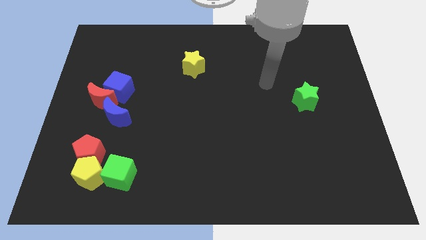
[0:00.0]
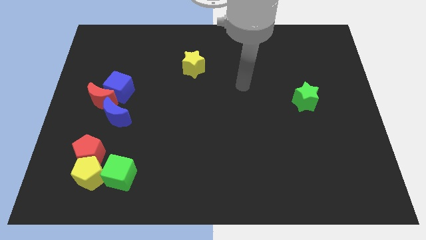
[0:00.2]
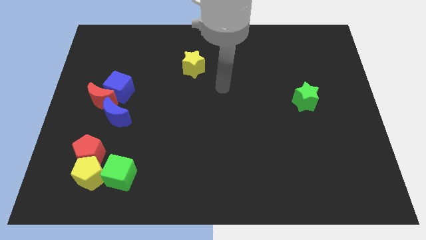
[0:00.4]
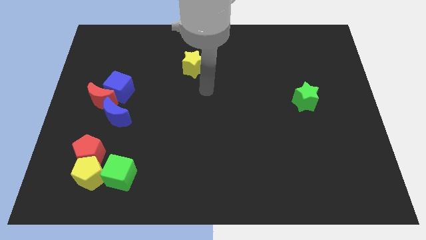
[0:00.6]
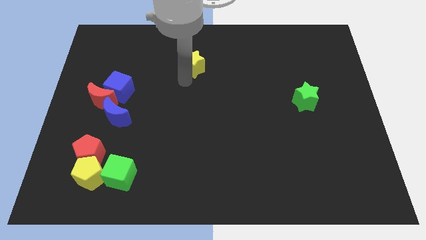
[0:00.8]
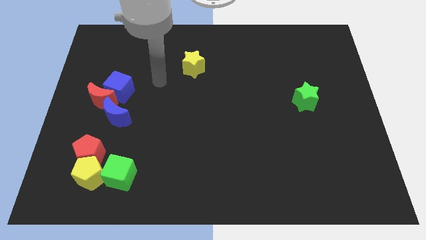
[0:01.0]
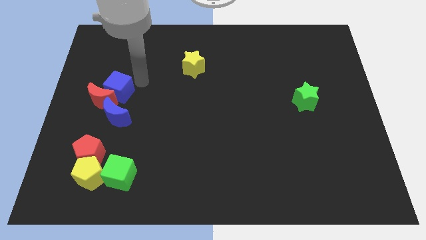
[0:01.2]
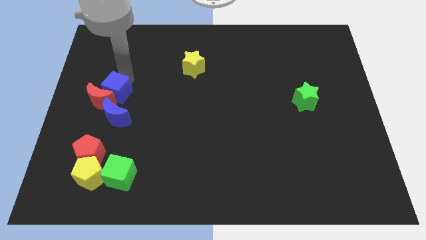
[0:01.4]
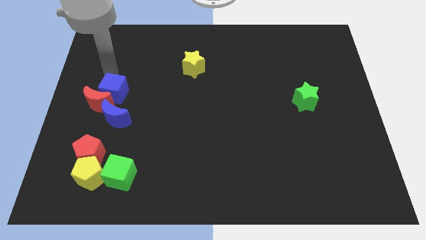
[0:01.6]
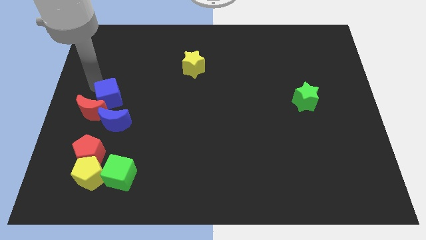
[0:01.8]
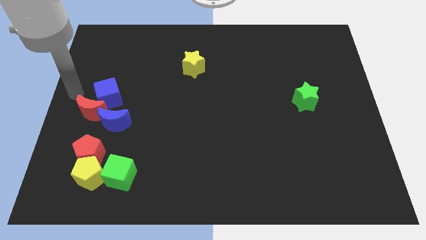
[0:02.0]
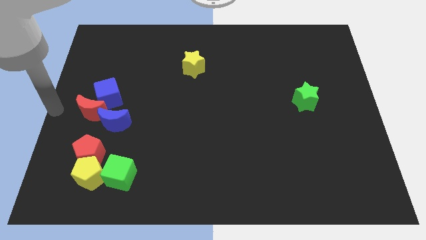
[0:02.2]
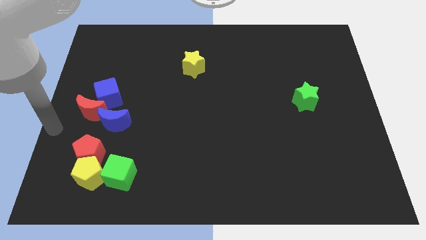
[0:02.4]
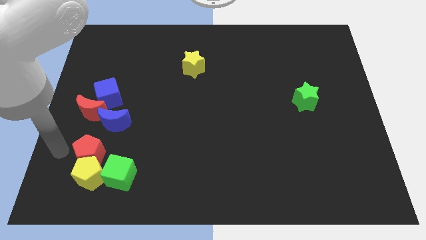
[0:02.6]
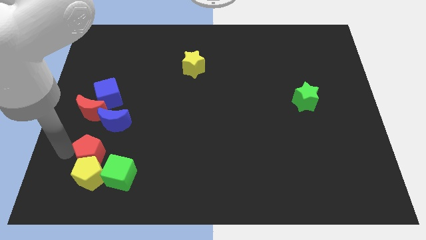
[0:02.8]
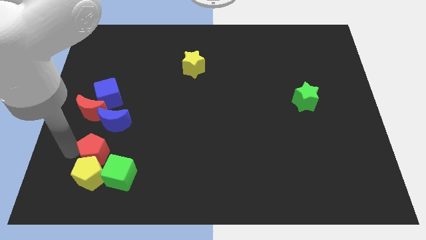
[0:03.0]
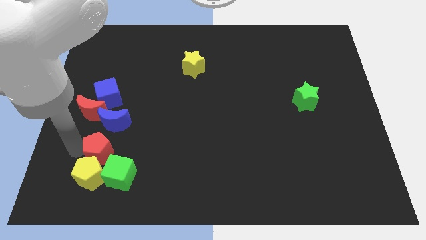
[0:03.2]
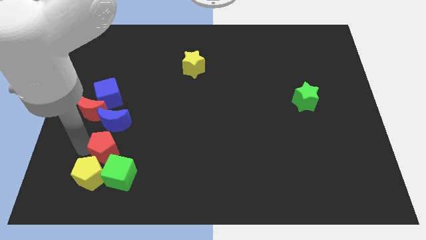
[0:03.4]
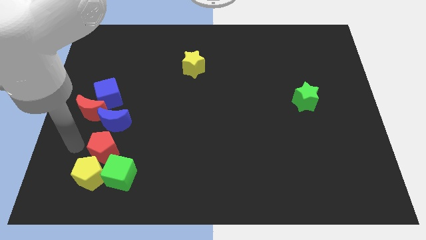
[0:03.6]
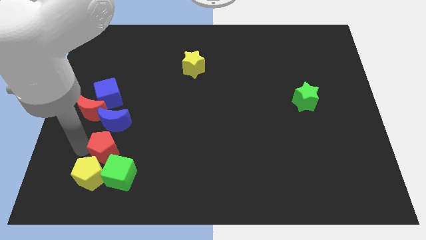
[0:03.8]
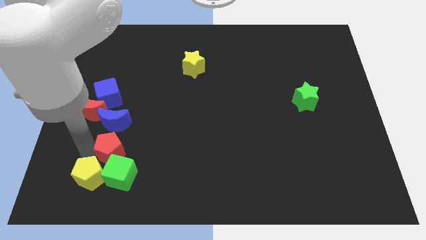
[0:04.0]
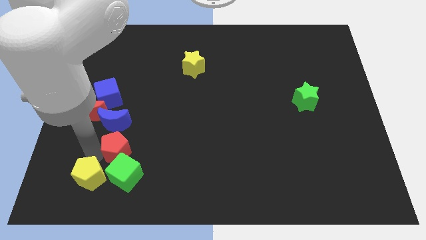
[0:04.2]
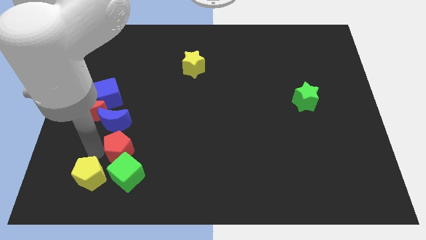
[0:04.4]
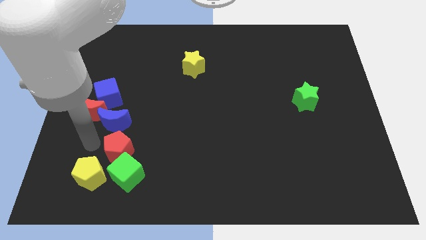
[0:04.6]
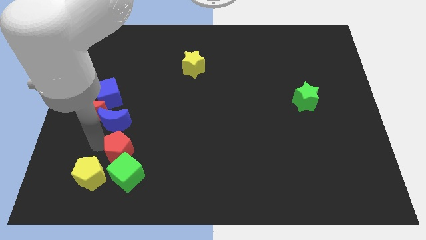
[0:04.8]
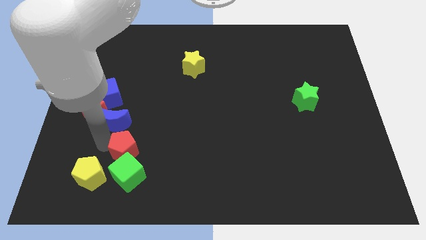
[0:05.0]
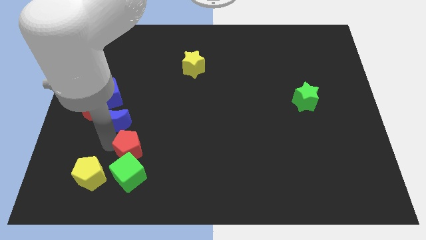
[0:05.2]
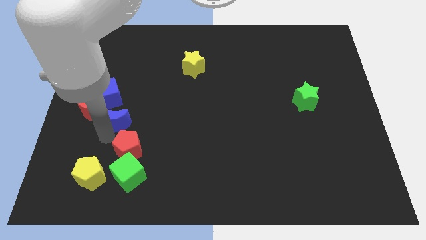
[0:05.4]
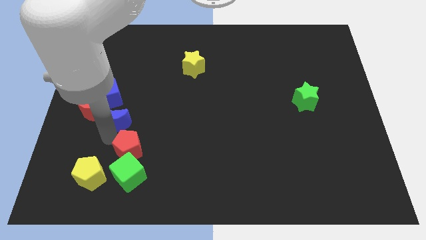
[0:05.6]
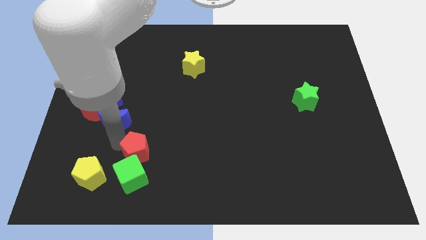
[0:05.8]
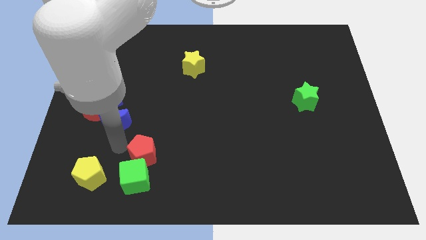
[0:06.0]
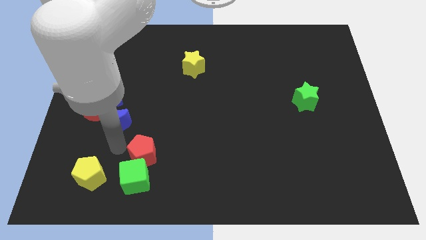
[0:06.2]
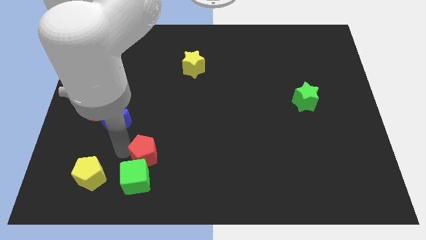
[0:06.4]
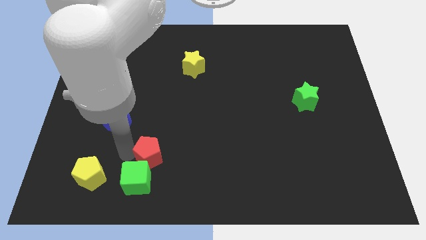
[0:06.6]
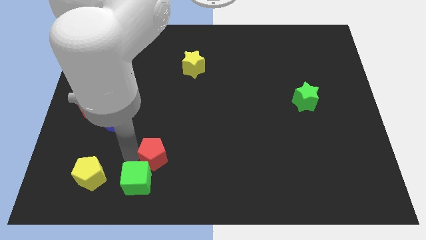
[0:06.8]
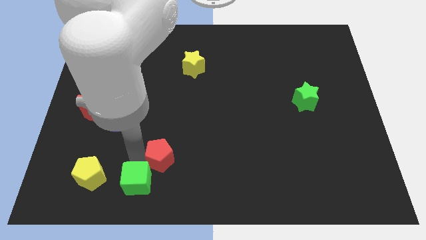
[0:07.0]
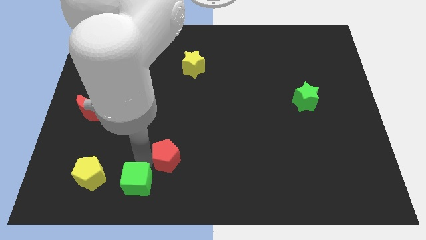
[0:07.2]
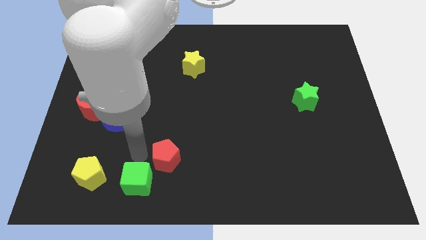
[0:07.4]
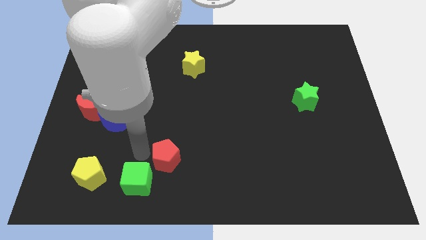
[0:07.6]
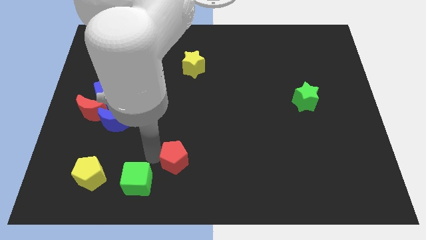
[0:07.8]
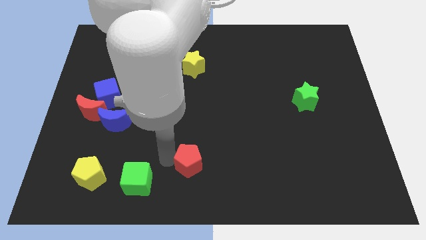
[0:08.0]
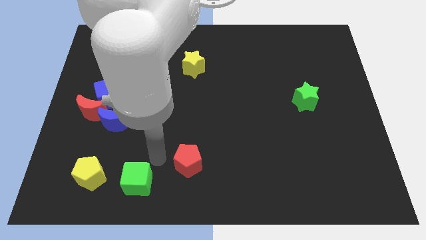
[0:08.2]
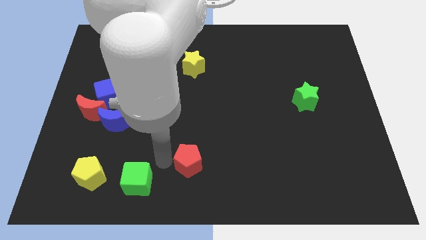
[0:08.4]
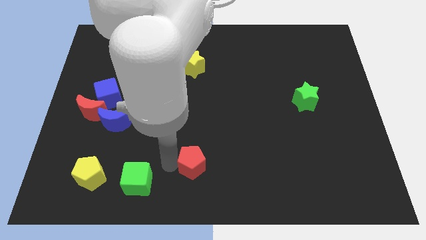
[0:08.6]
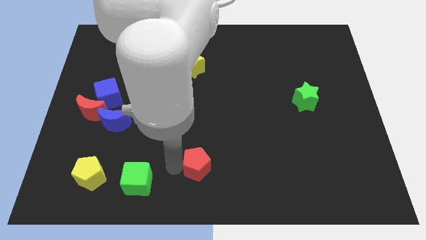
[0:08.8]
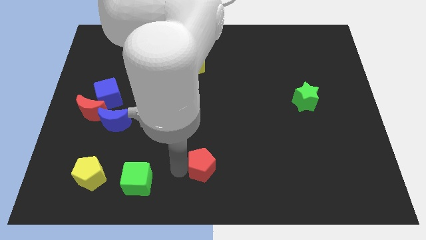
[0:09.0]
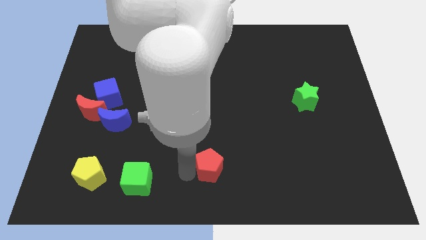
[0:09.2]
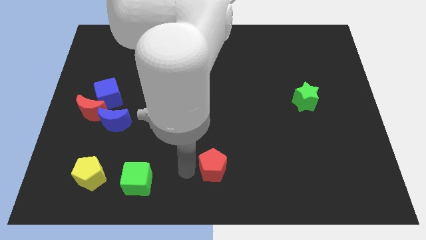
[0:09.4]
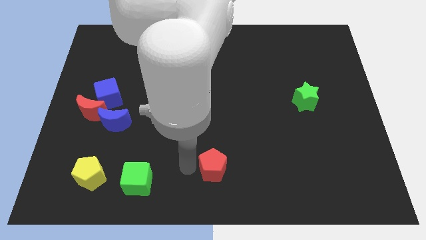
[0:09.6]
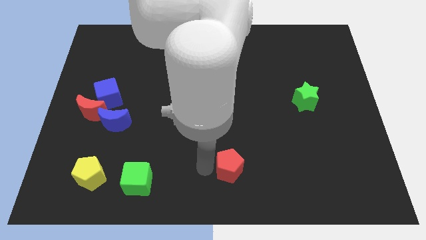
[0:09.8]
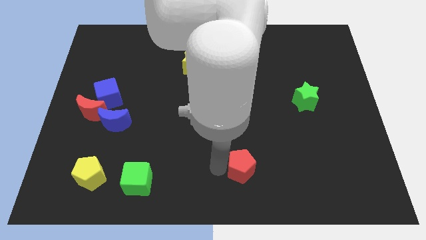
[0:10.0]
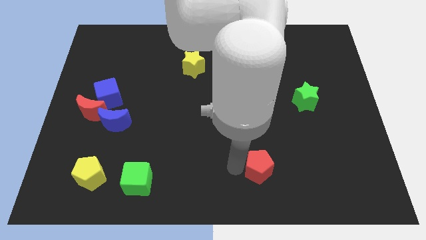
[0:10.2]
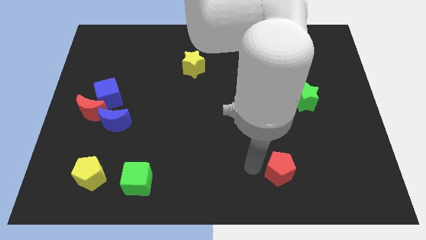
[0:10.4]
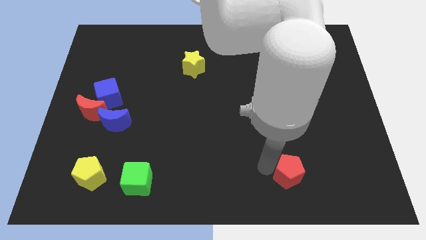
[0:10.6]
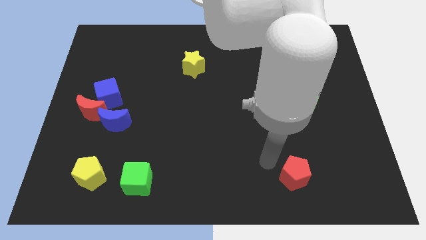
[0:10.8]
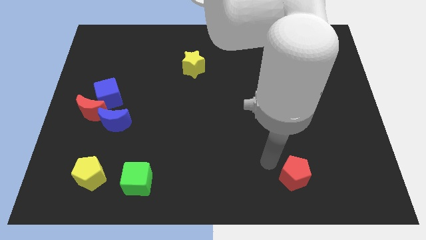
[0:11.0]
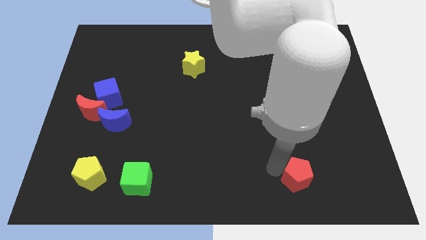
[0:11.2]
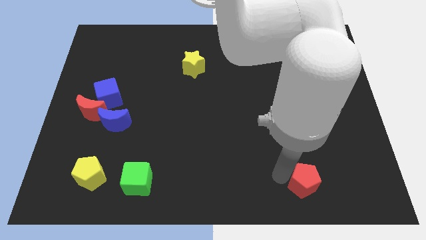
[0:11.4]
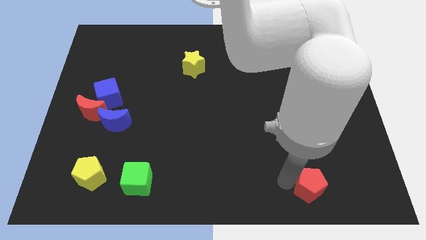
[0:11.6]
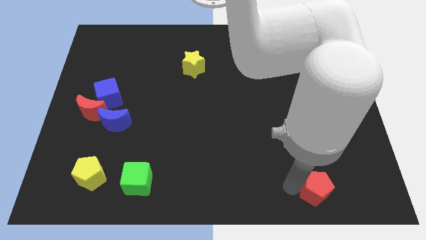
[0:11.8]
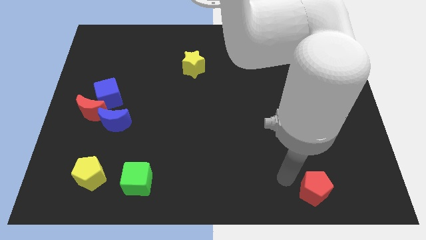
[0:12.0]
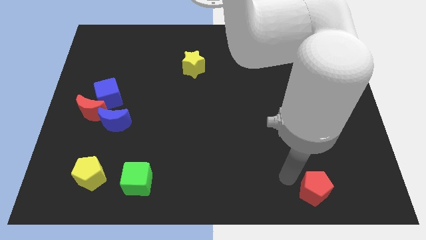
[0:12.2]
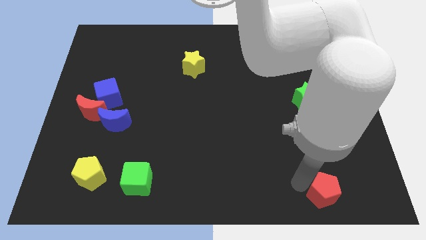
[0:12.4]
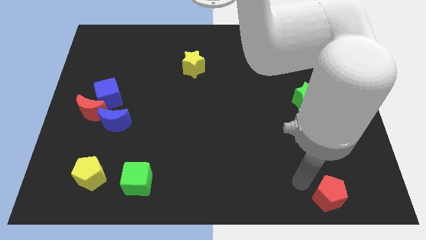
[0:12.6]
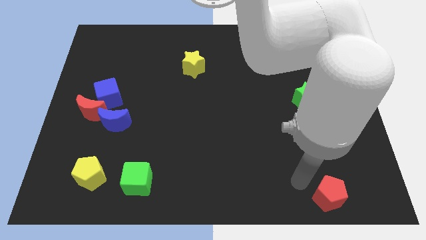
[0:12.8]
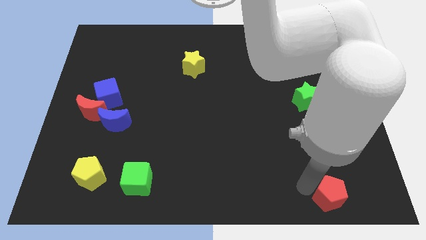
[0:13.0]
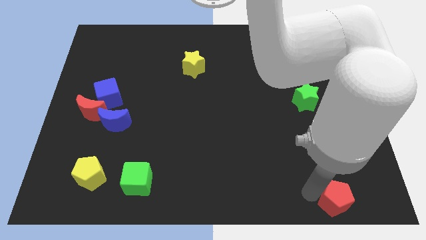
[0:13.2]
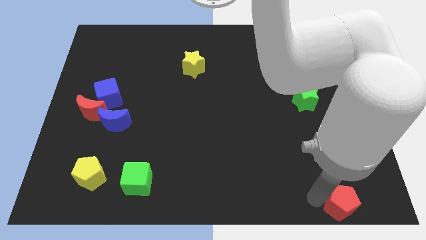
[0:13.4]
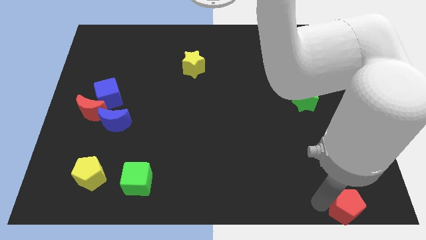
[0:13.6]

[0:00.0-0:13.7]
move the red pentagon to the lower right corner
